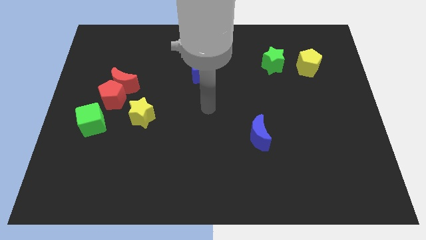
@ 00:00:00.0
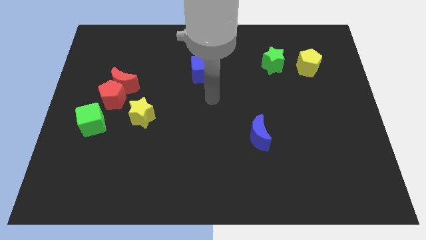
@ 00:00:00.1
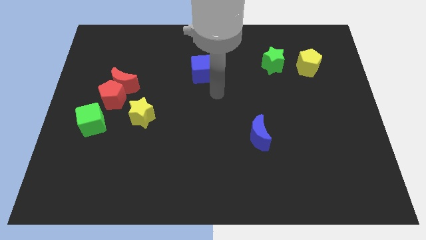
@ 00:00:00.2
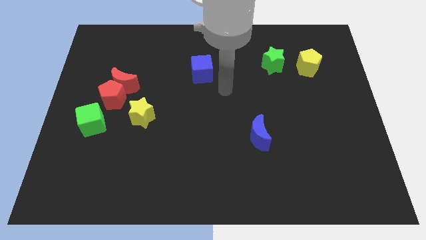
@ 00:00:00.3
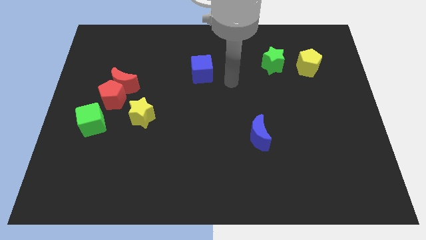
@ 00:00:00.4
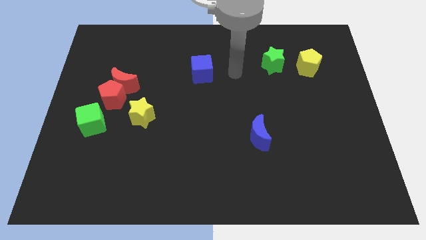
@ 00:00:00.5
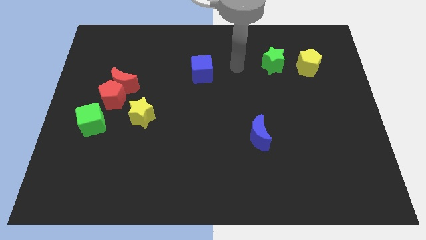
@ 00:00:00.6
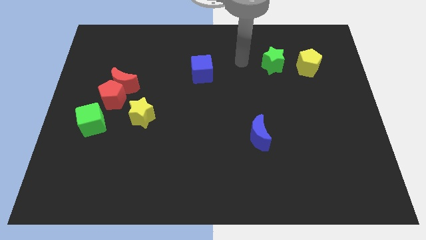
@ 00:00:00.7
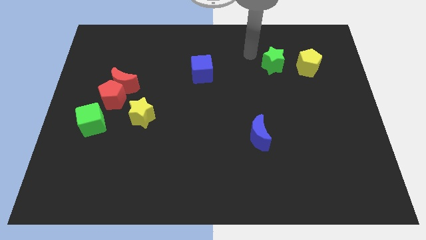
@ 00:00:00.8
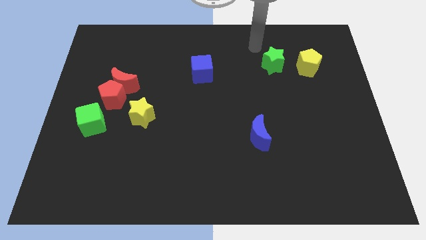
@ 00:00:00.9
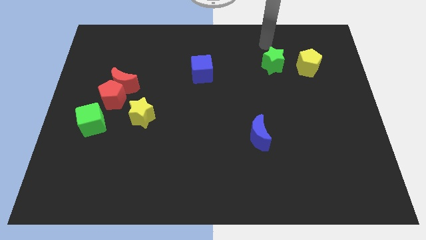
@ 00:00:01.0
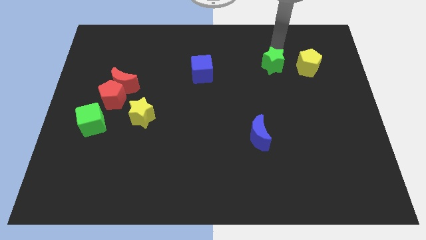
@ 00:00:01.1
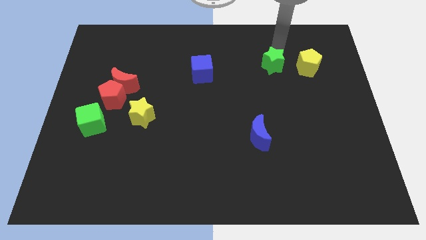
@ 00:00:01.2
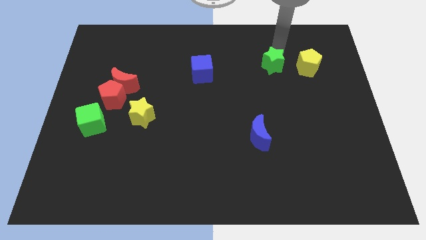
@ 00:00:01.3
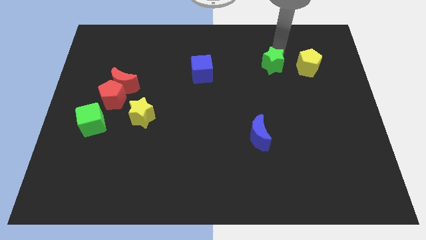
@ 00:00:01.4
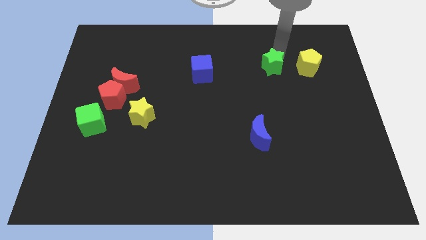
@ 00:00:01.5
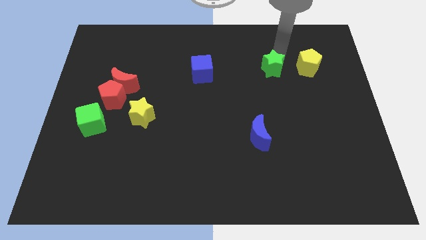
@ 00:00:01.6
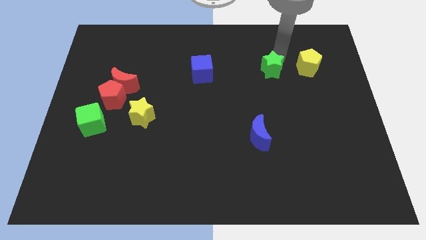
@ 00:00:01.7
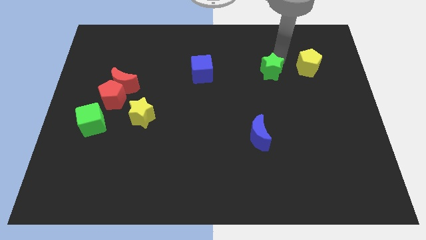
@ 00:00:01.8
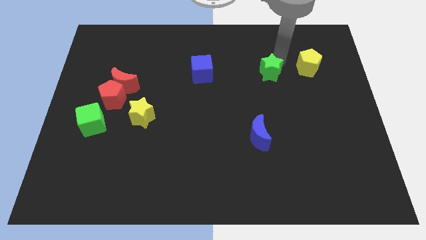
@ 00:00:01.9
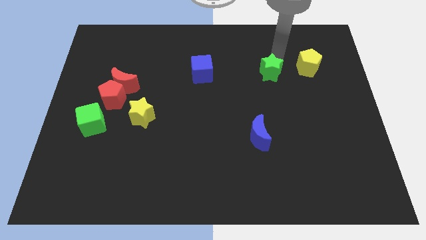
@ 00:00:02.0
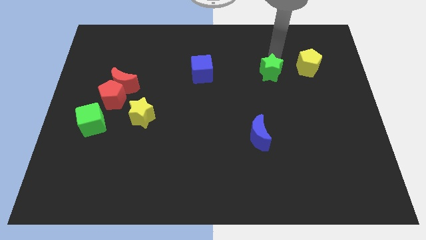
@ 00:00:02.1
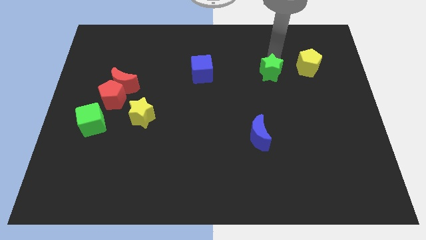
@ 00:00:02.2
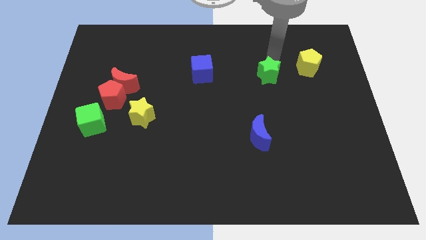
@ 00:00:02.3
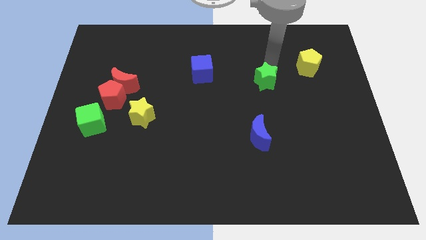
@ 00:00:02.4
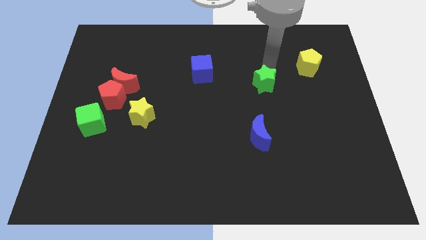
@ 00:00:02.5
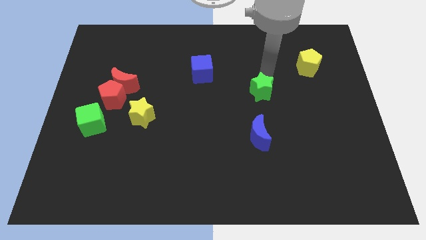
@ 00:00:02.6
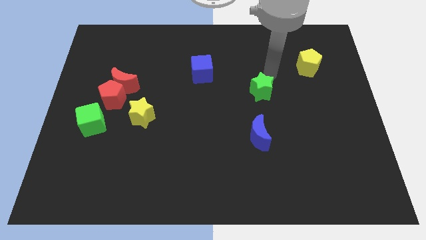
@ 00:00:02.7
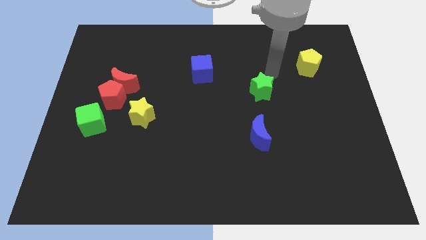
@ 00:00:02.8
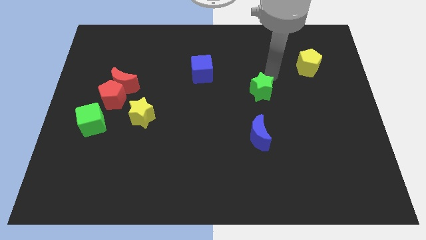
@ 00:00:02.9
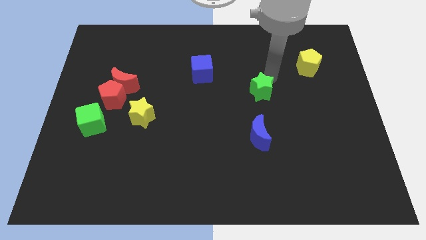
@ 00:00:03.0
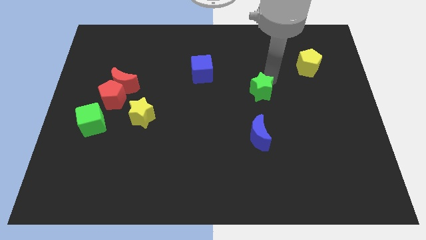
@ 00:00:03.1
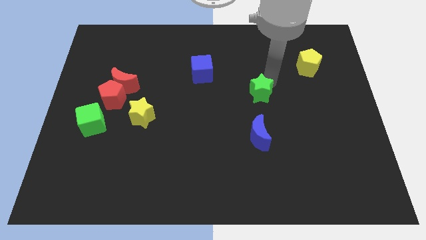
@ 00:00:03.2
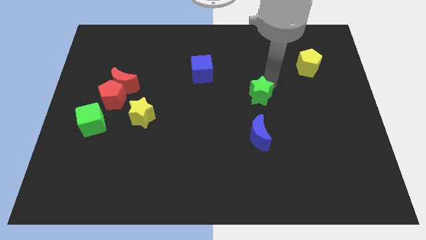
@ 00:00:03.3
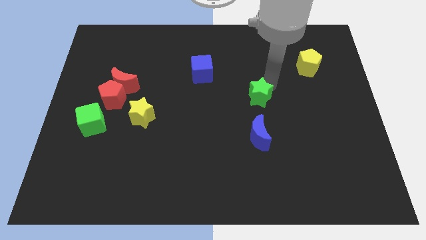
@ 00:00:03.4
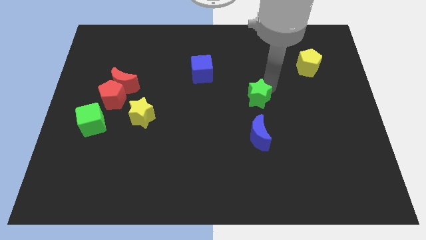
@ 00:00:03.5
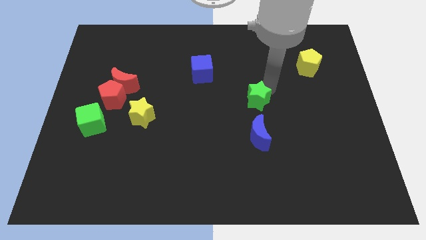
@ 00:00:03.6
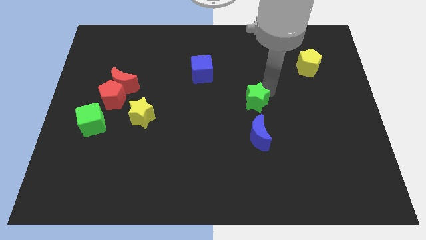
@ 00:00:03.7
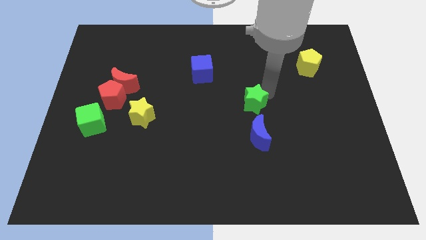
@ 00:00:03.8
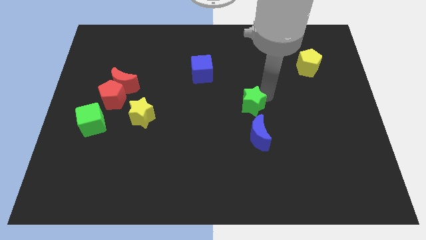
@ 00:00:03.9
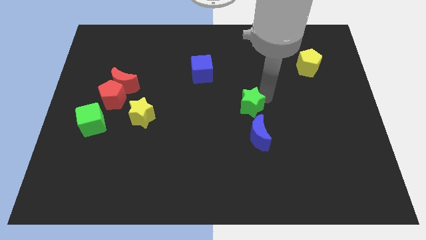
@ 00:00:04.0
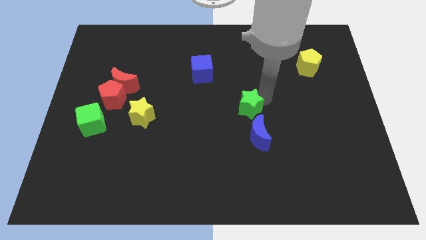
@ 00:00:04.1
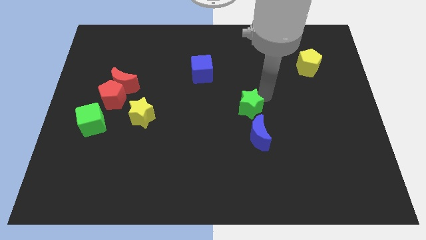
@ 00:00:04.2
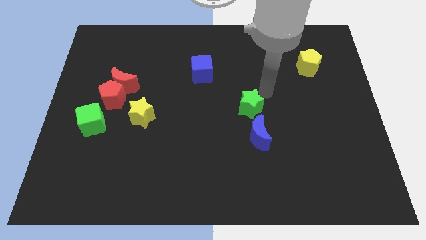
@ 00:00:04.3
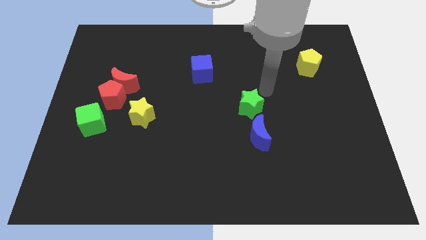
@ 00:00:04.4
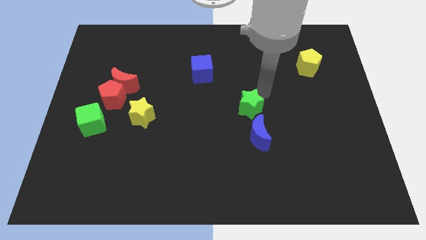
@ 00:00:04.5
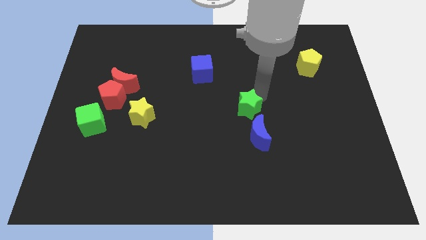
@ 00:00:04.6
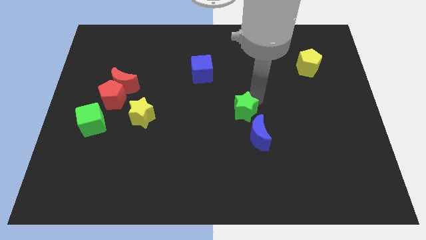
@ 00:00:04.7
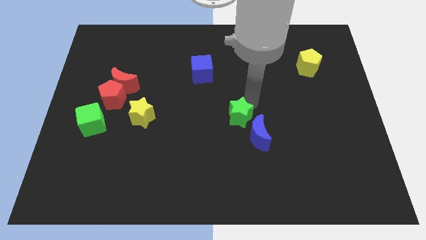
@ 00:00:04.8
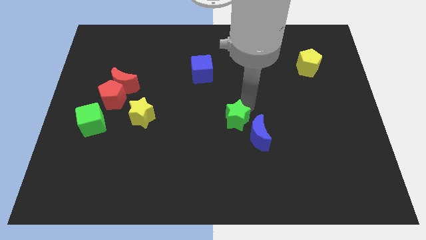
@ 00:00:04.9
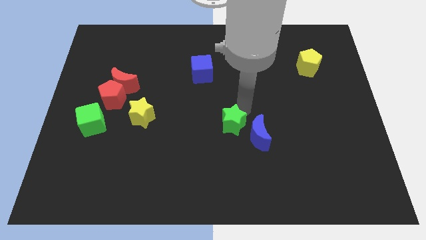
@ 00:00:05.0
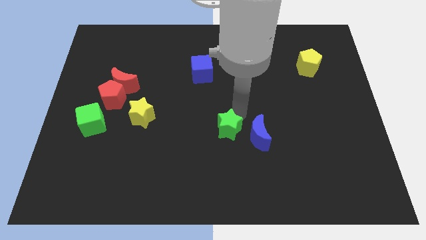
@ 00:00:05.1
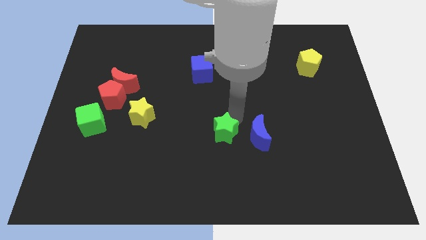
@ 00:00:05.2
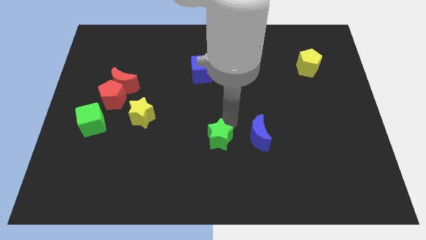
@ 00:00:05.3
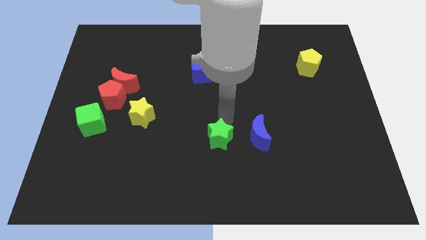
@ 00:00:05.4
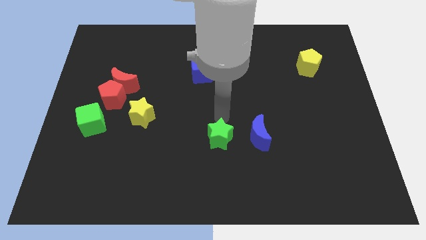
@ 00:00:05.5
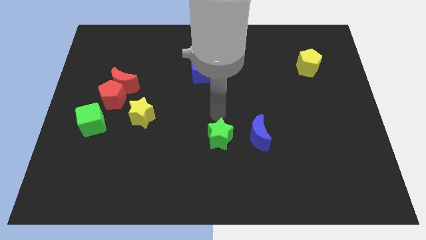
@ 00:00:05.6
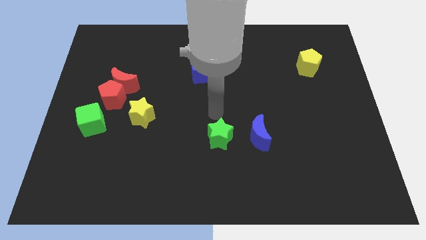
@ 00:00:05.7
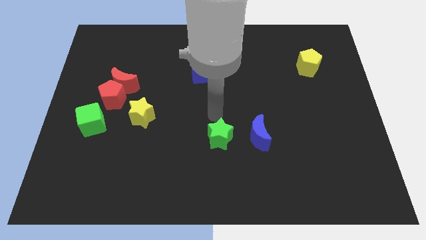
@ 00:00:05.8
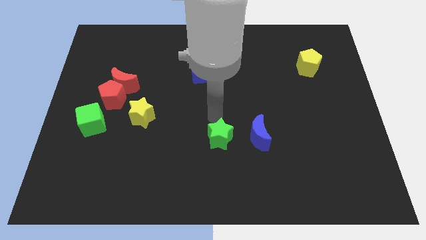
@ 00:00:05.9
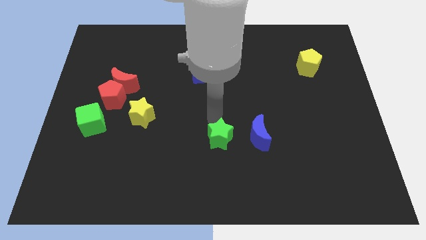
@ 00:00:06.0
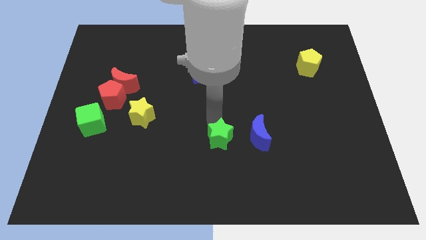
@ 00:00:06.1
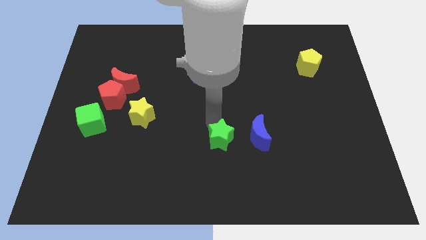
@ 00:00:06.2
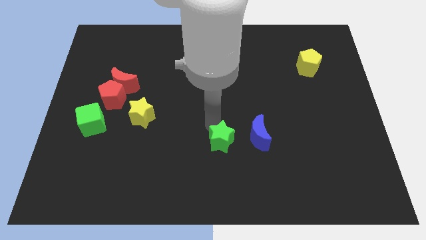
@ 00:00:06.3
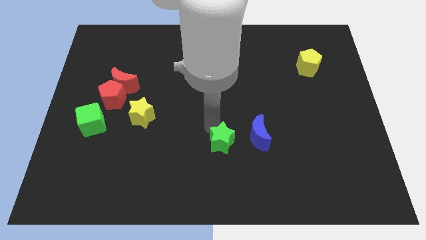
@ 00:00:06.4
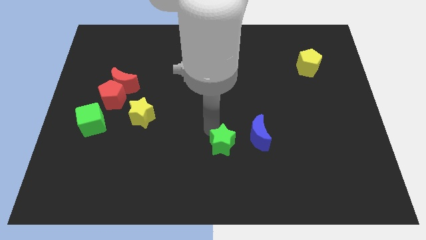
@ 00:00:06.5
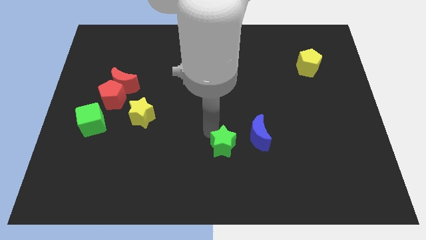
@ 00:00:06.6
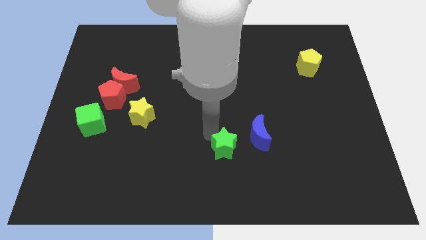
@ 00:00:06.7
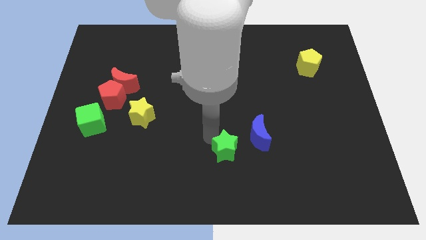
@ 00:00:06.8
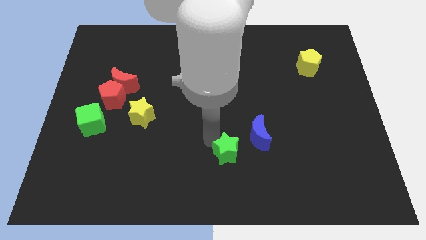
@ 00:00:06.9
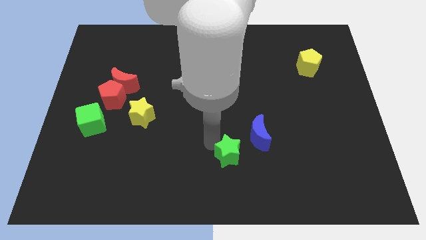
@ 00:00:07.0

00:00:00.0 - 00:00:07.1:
slide the green star to the bottom side
